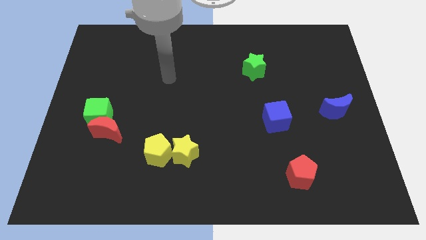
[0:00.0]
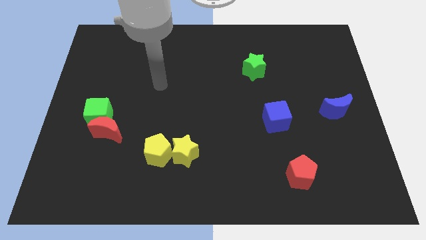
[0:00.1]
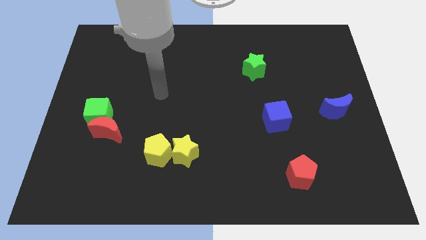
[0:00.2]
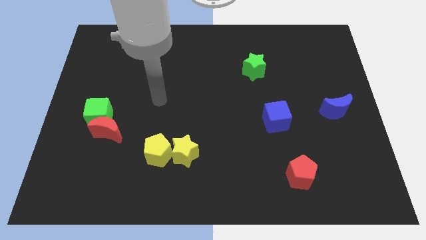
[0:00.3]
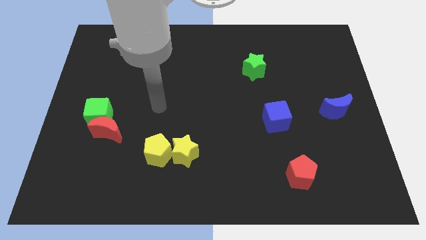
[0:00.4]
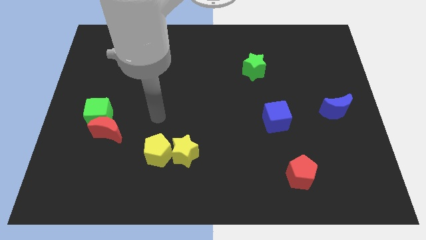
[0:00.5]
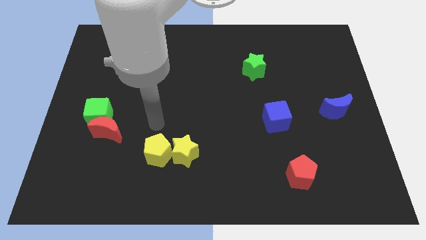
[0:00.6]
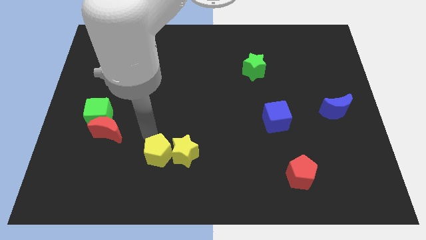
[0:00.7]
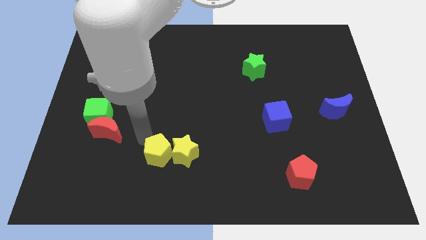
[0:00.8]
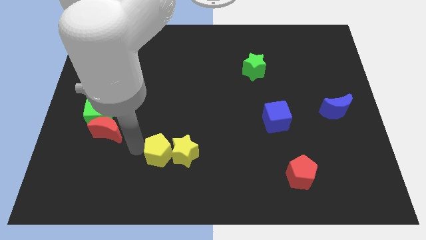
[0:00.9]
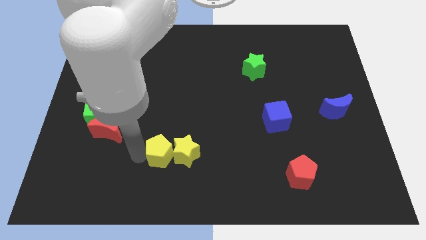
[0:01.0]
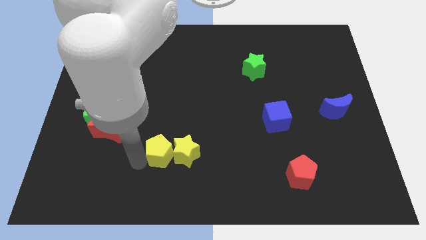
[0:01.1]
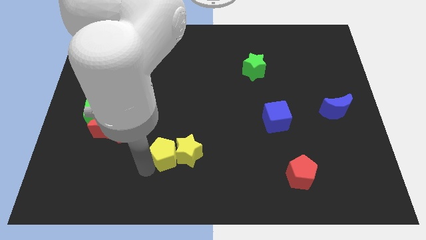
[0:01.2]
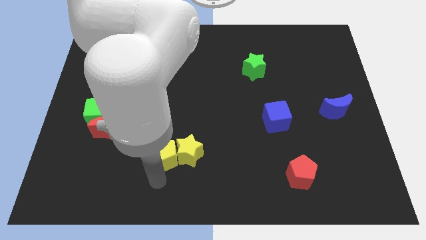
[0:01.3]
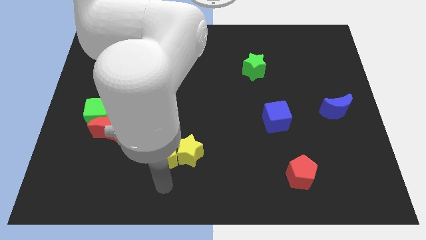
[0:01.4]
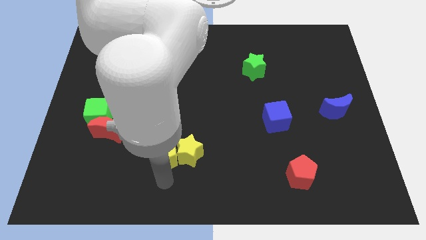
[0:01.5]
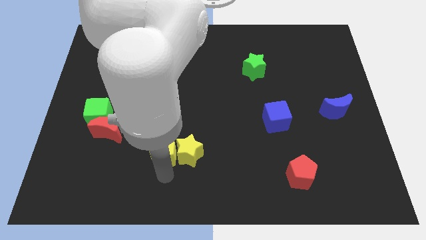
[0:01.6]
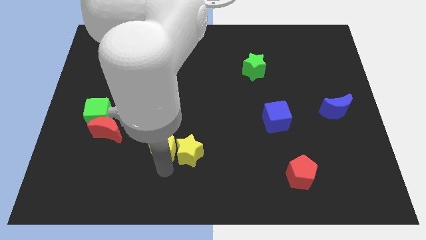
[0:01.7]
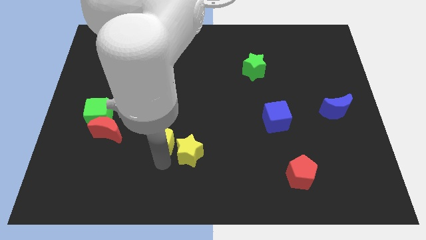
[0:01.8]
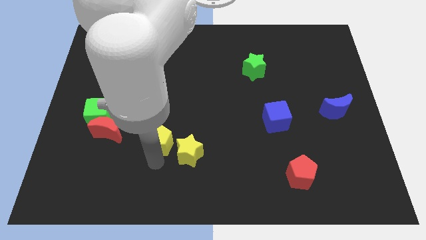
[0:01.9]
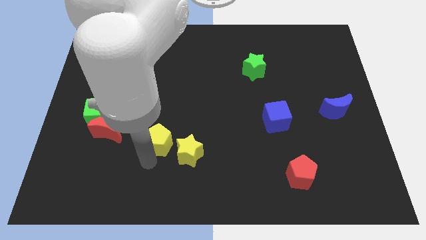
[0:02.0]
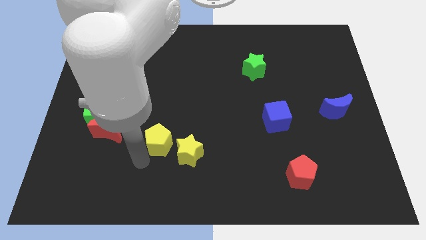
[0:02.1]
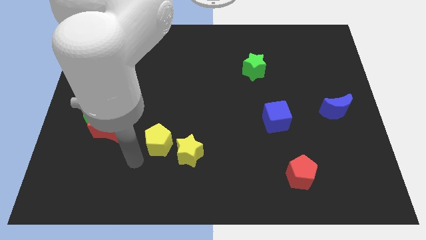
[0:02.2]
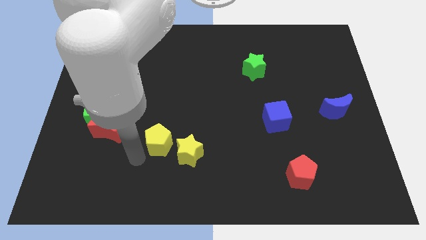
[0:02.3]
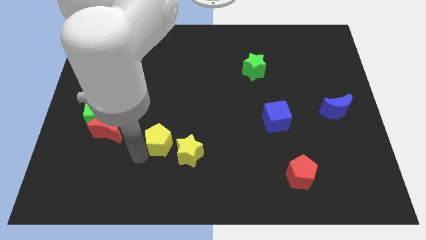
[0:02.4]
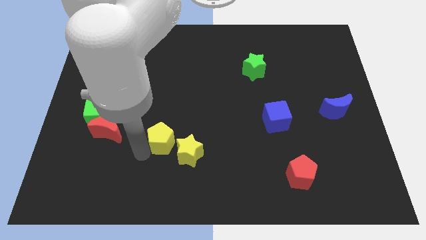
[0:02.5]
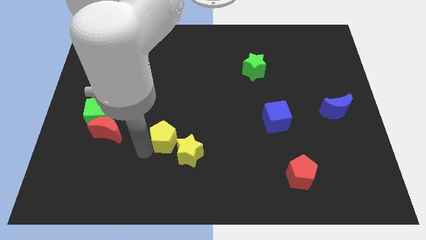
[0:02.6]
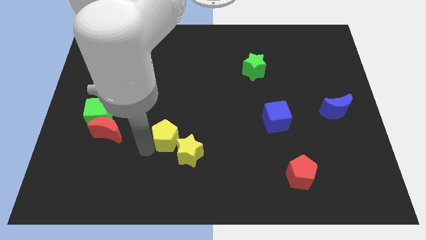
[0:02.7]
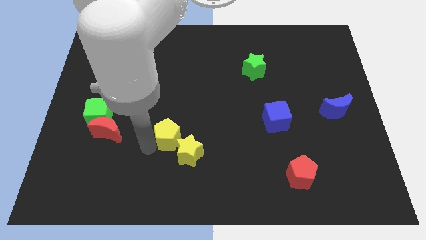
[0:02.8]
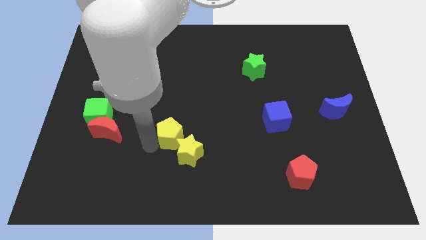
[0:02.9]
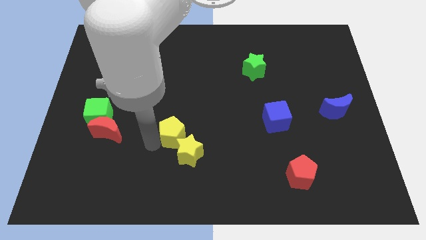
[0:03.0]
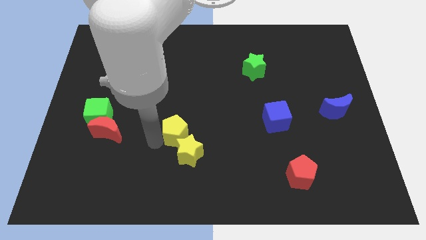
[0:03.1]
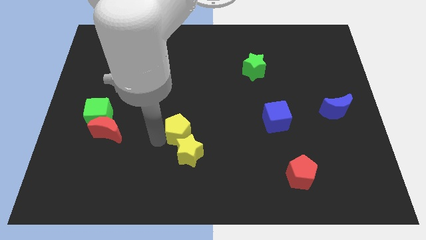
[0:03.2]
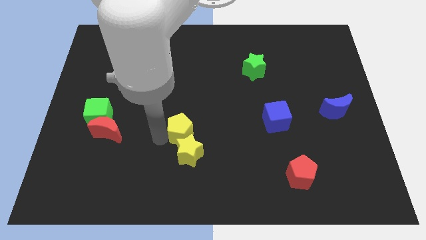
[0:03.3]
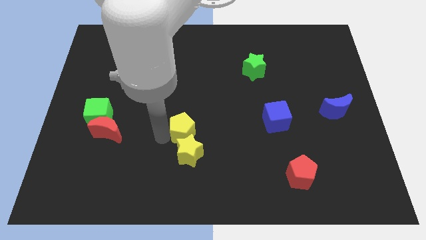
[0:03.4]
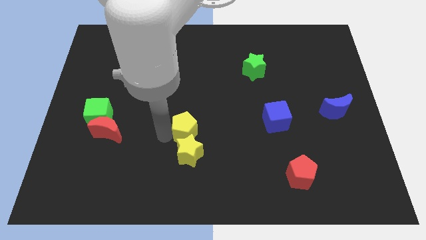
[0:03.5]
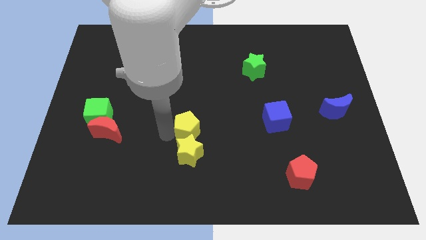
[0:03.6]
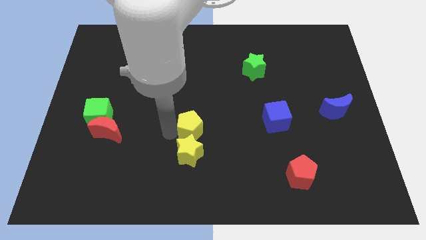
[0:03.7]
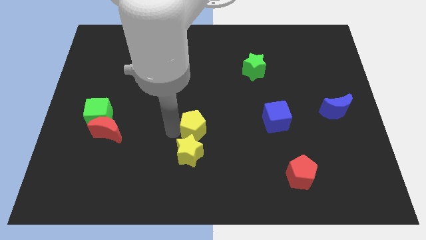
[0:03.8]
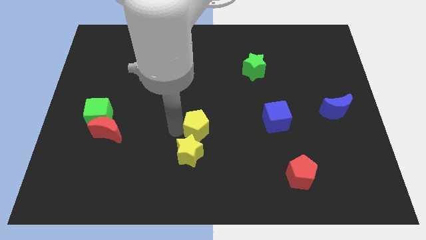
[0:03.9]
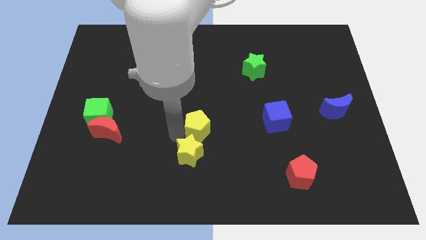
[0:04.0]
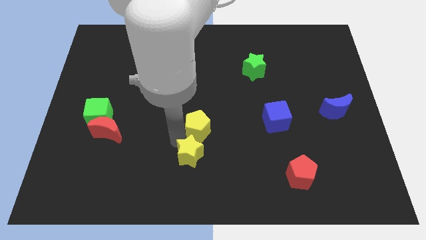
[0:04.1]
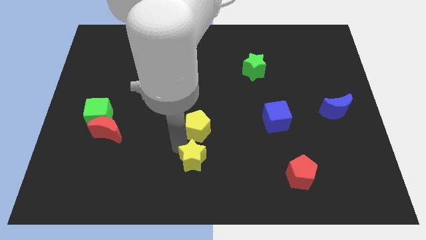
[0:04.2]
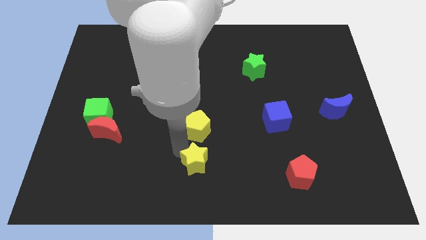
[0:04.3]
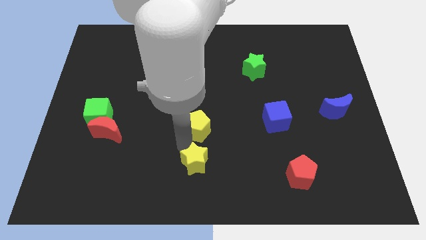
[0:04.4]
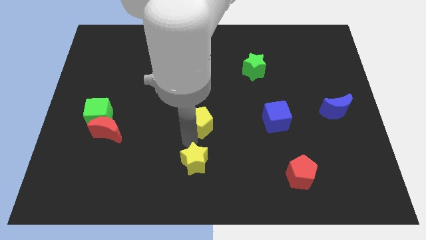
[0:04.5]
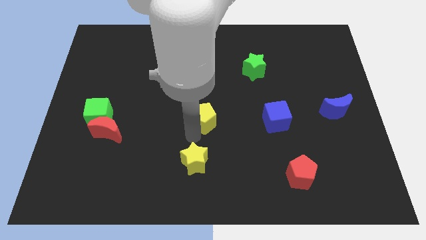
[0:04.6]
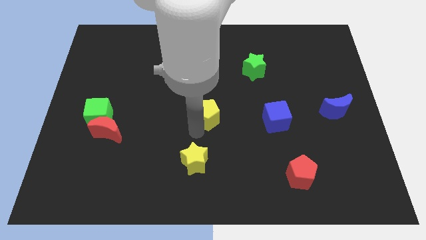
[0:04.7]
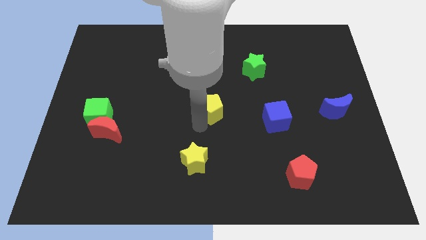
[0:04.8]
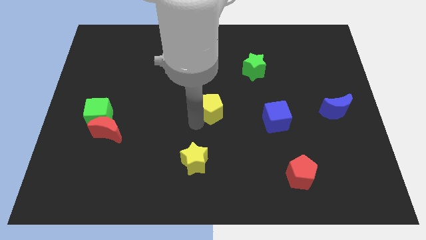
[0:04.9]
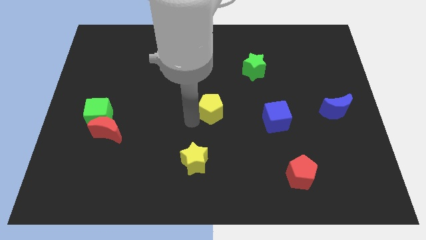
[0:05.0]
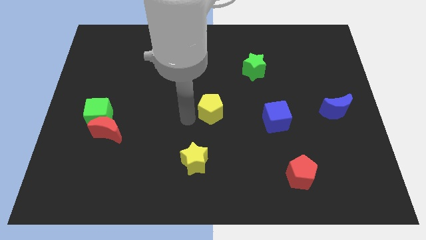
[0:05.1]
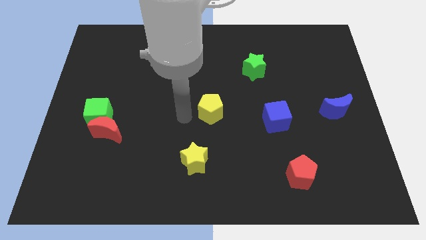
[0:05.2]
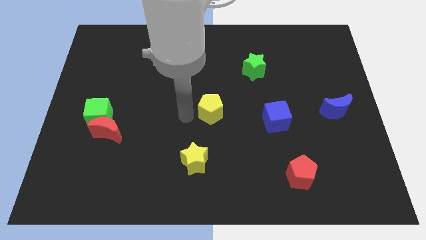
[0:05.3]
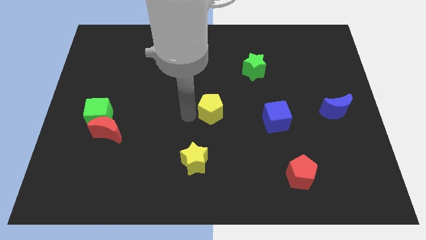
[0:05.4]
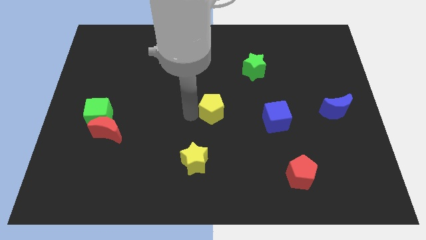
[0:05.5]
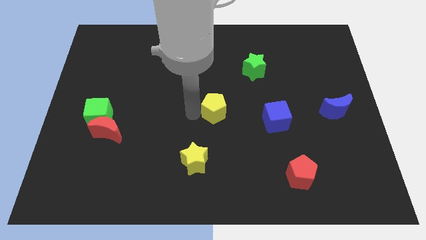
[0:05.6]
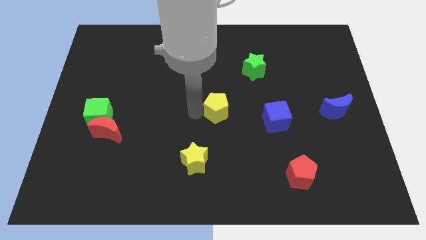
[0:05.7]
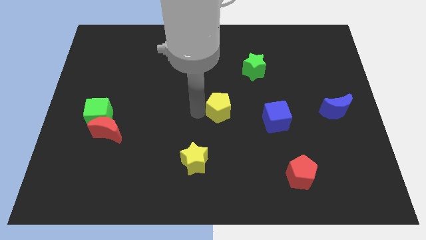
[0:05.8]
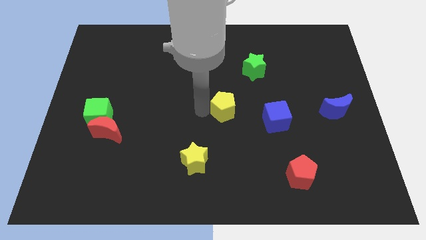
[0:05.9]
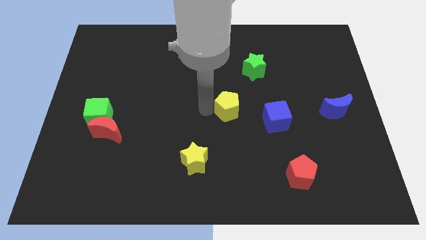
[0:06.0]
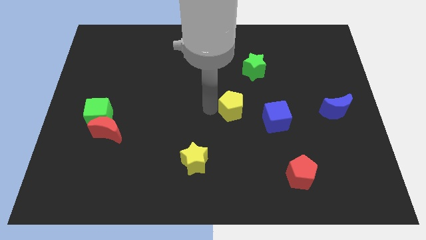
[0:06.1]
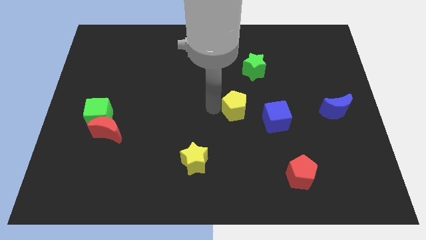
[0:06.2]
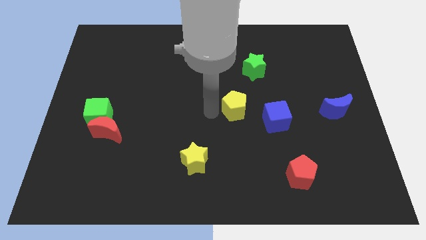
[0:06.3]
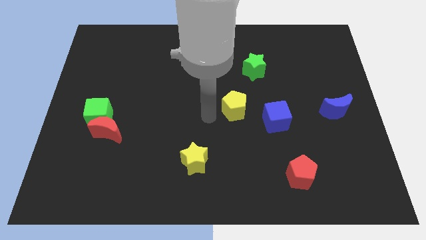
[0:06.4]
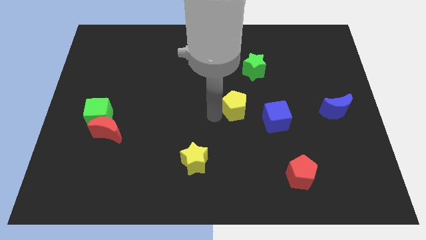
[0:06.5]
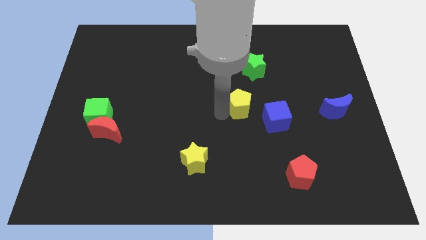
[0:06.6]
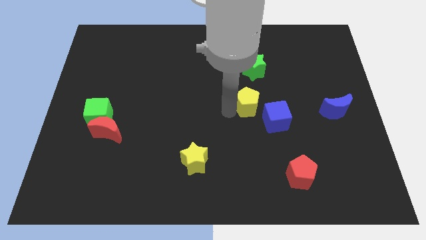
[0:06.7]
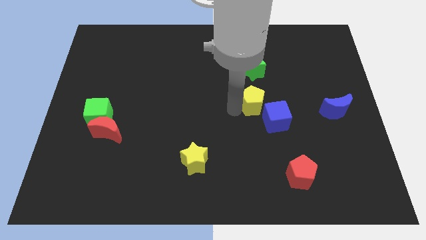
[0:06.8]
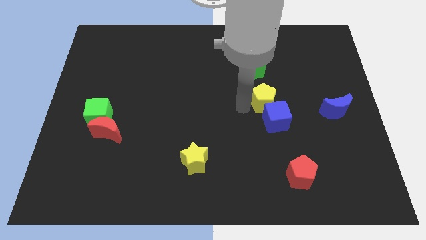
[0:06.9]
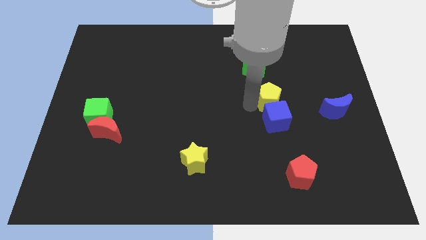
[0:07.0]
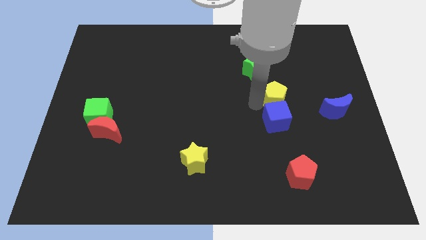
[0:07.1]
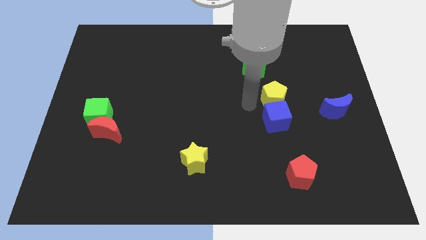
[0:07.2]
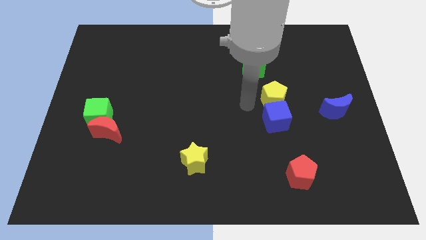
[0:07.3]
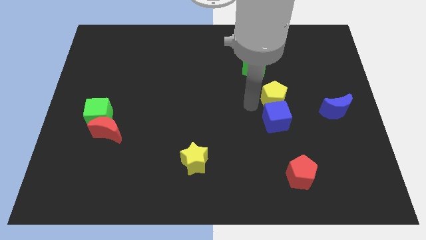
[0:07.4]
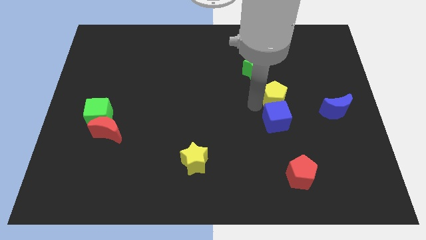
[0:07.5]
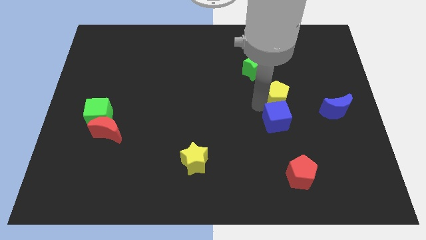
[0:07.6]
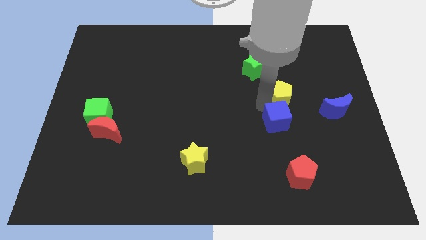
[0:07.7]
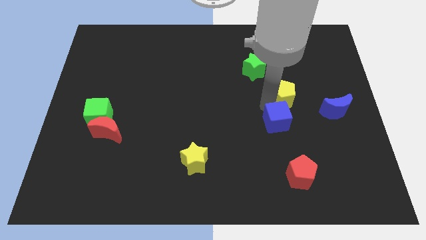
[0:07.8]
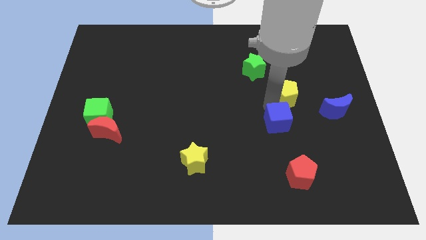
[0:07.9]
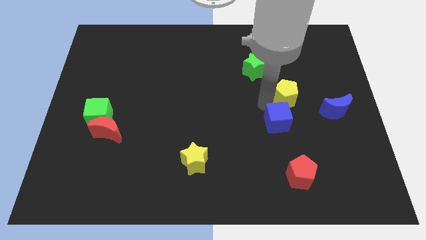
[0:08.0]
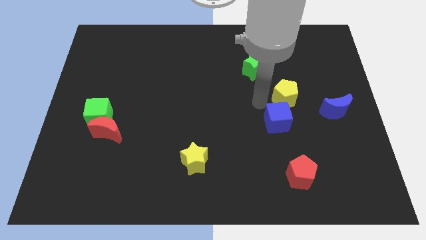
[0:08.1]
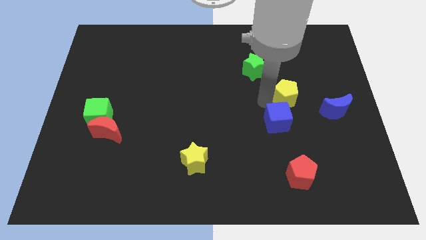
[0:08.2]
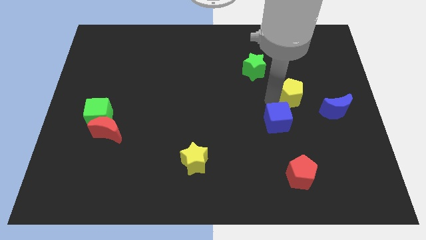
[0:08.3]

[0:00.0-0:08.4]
slide the yellow pentagon diagonally up and to the left of the blue moon
